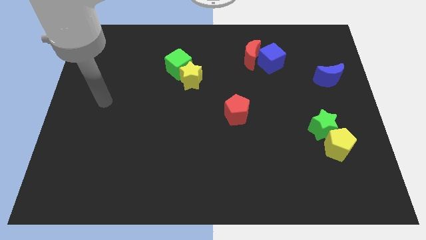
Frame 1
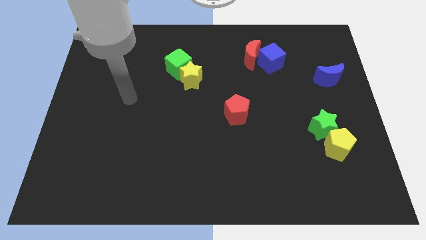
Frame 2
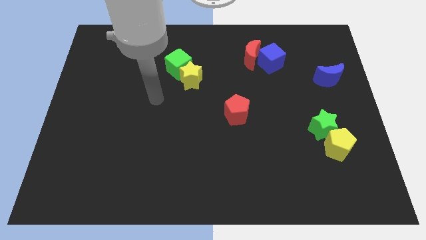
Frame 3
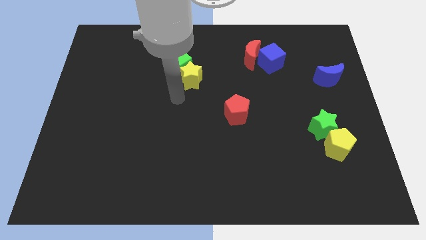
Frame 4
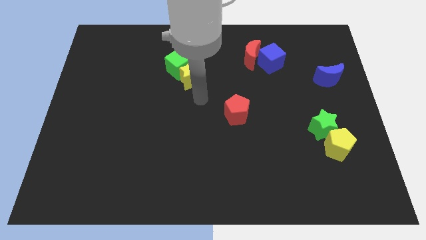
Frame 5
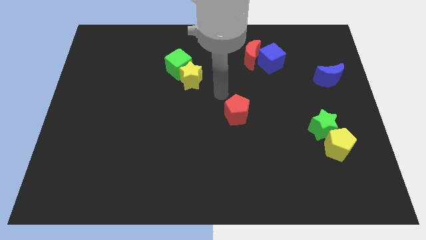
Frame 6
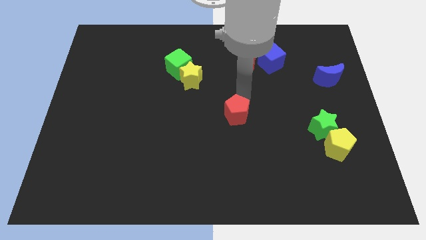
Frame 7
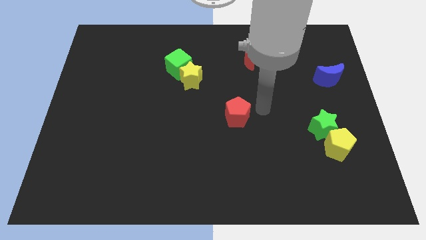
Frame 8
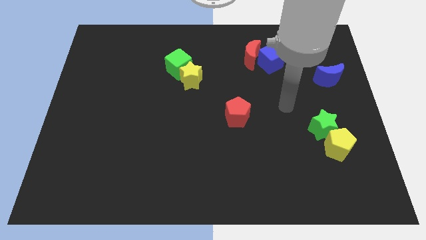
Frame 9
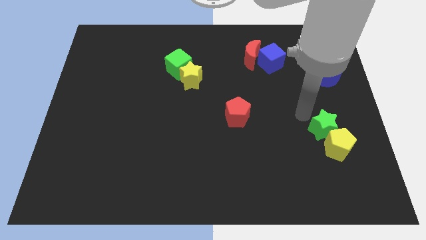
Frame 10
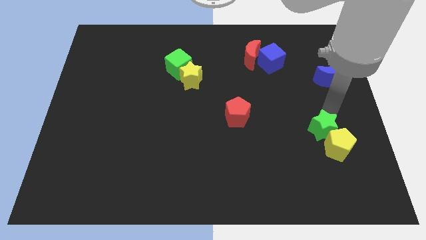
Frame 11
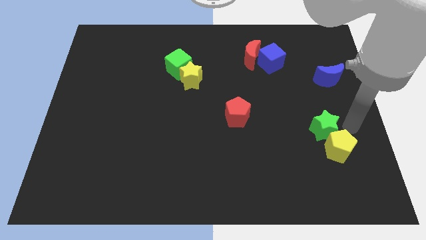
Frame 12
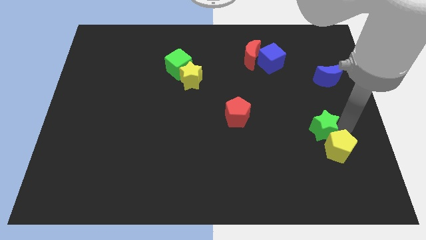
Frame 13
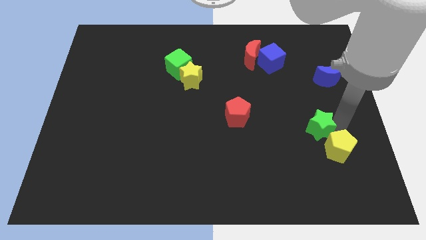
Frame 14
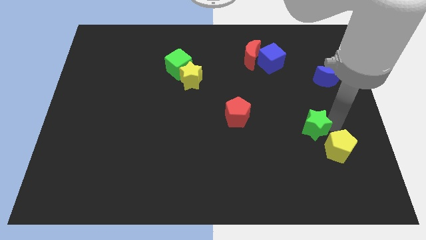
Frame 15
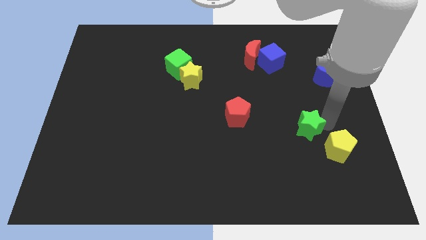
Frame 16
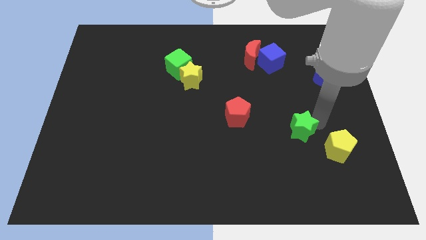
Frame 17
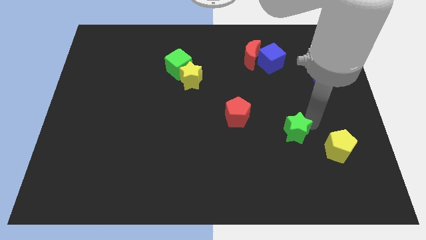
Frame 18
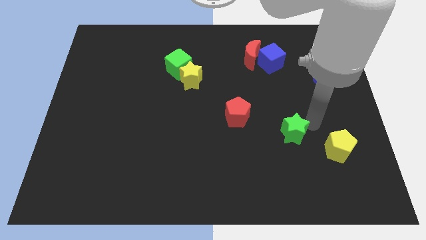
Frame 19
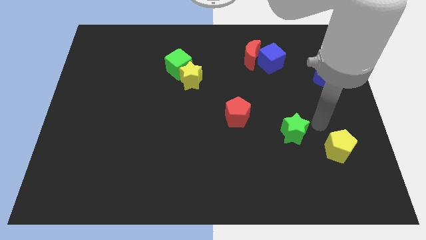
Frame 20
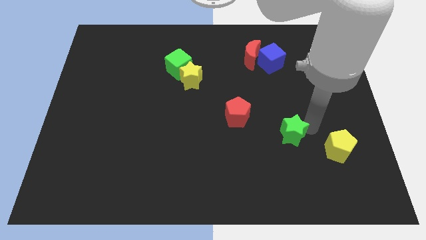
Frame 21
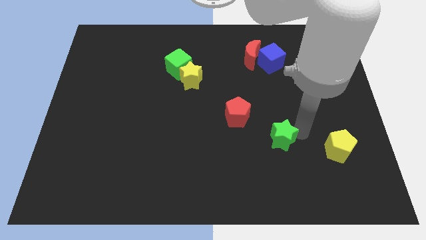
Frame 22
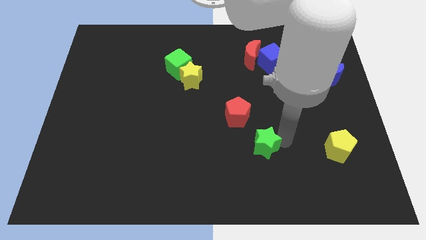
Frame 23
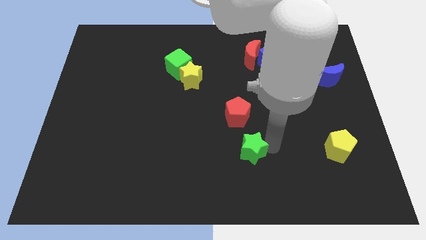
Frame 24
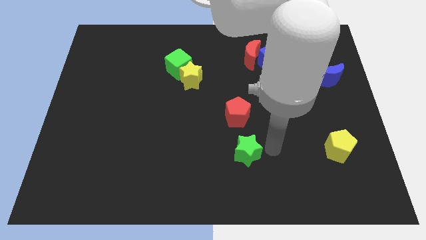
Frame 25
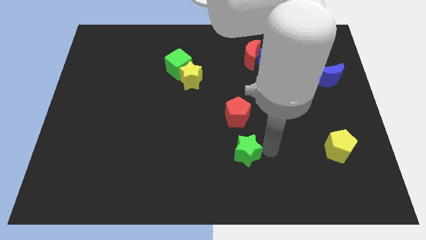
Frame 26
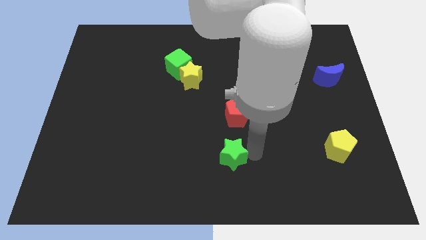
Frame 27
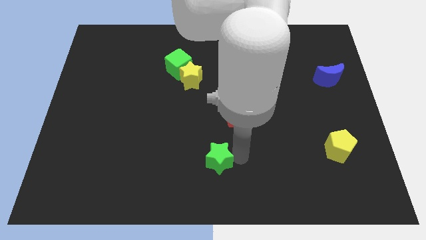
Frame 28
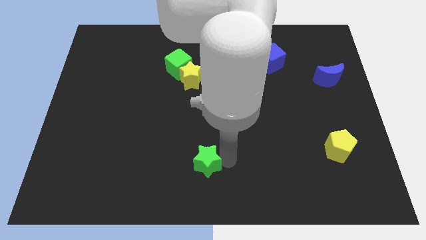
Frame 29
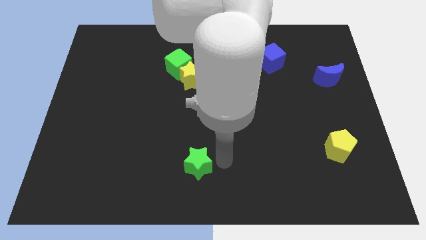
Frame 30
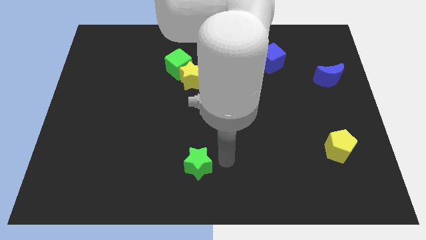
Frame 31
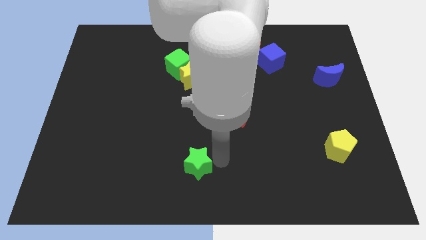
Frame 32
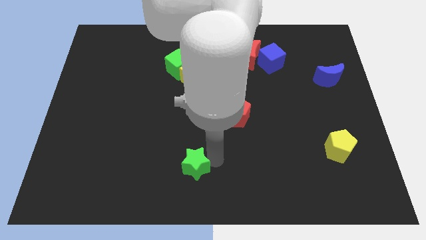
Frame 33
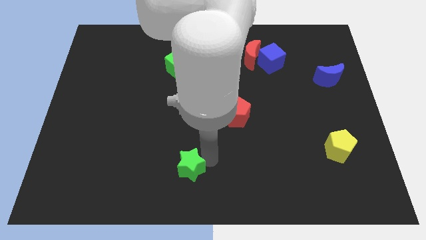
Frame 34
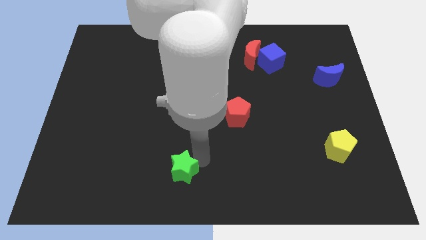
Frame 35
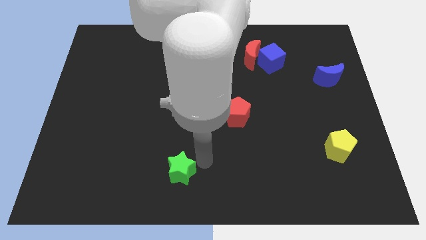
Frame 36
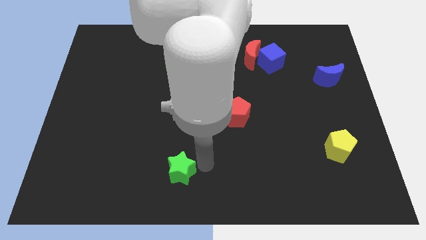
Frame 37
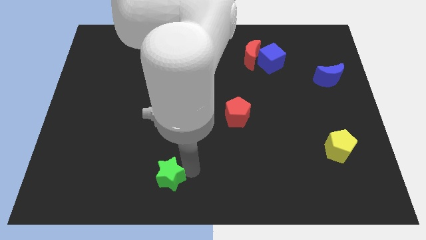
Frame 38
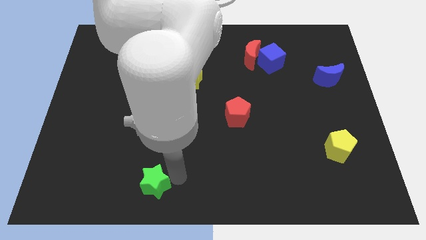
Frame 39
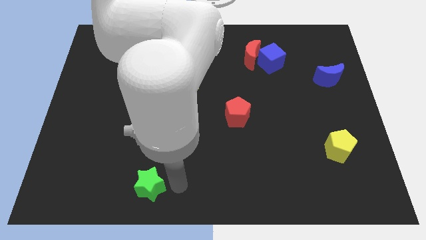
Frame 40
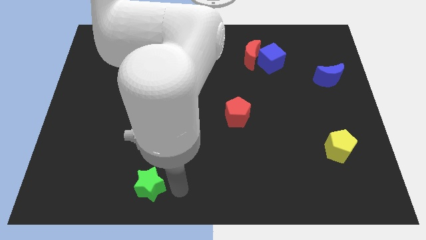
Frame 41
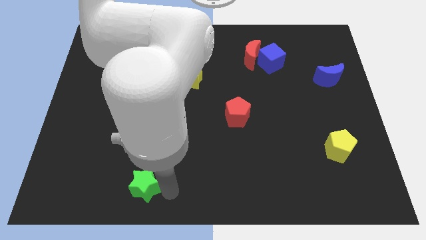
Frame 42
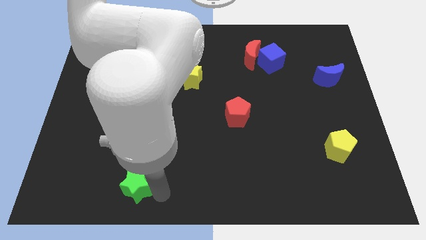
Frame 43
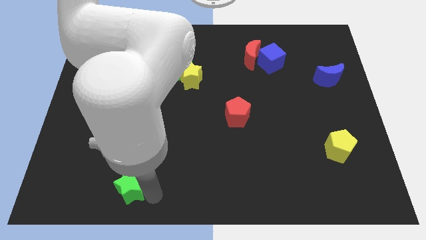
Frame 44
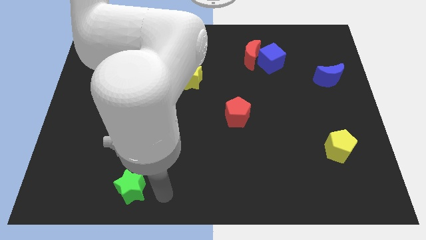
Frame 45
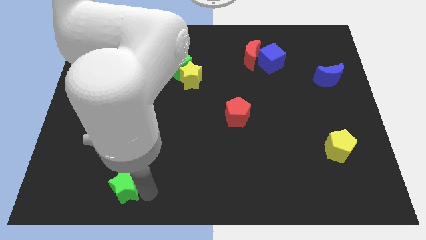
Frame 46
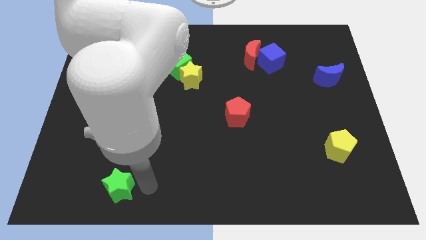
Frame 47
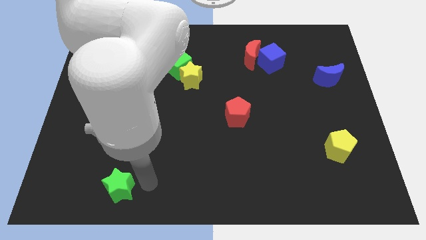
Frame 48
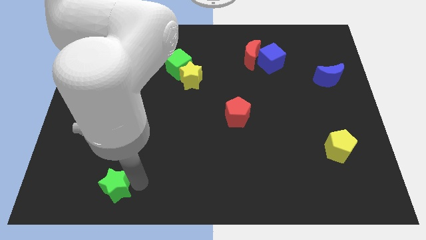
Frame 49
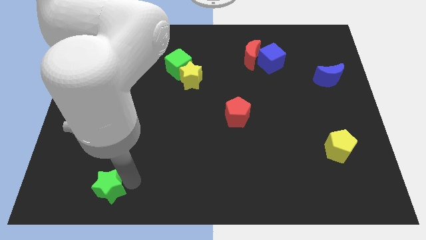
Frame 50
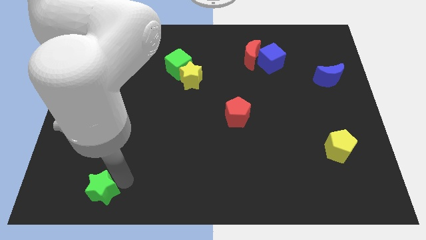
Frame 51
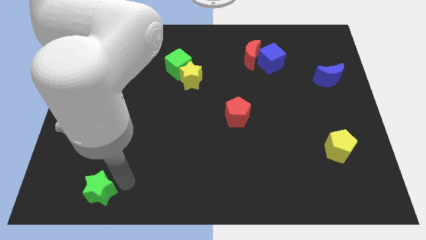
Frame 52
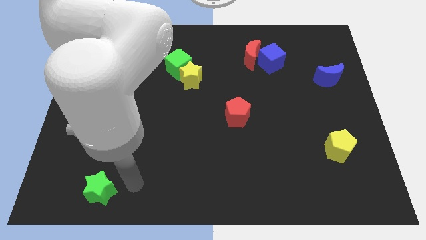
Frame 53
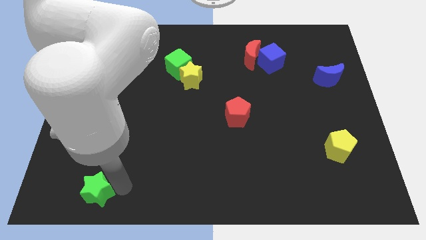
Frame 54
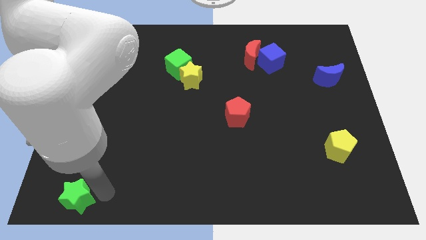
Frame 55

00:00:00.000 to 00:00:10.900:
put the green star to the lower left corner
